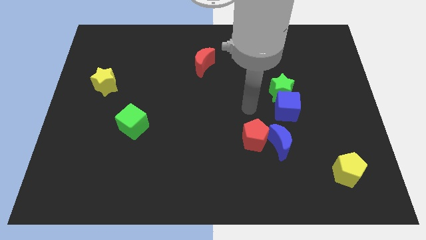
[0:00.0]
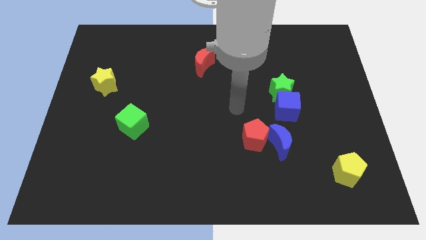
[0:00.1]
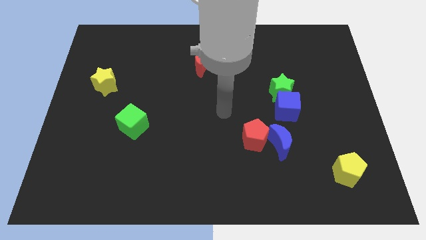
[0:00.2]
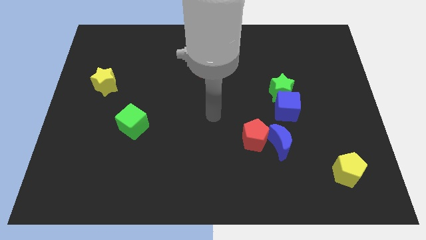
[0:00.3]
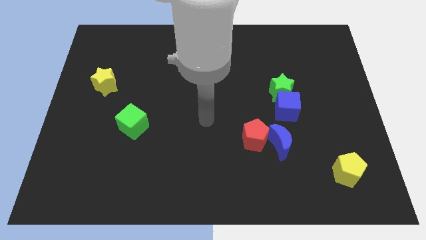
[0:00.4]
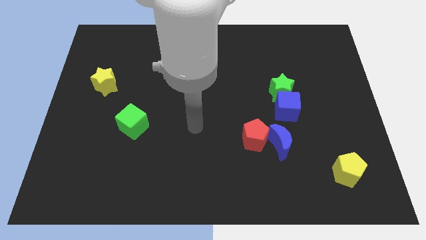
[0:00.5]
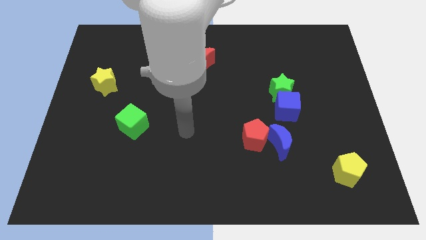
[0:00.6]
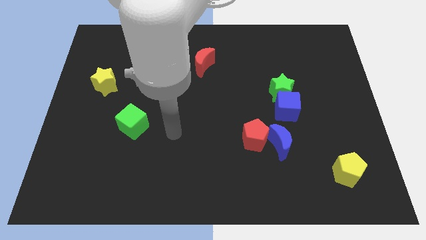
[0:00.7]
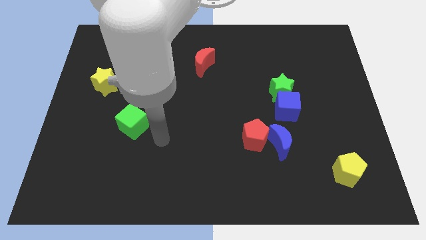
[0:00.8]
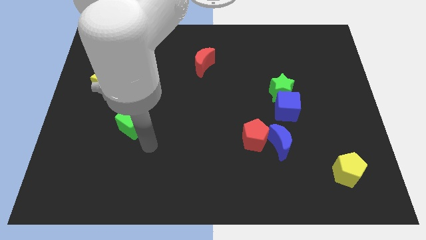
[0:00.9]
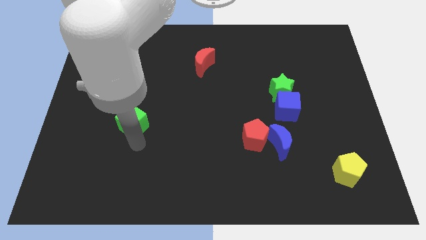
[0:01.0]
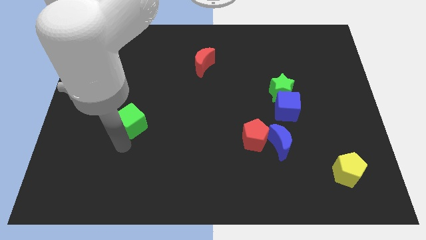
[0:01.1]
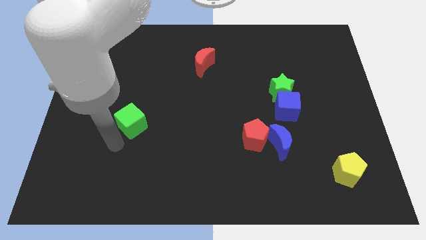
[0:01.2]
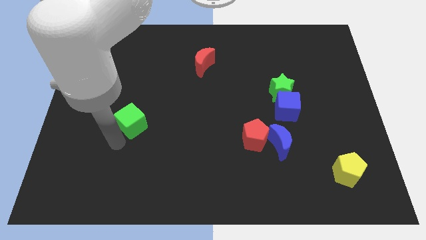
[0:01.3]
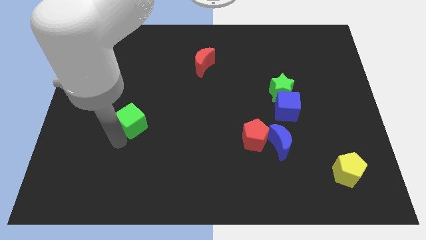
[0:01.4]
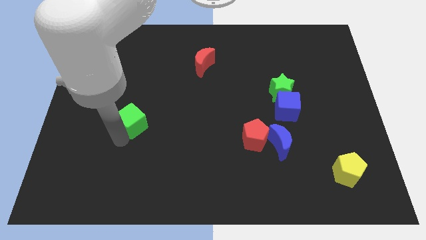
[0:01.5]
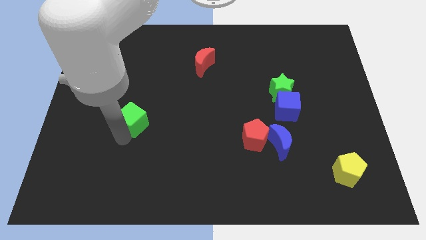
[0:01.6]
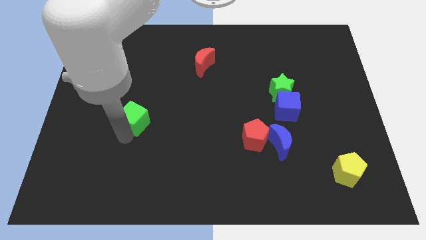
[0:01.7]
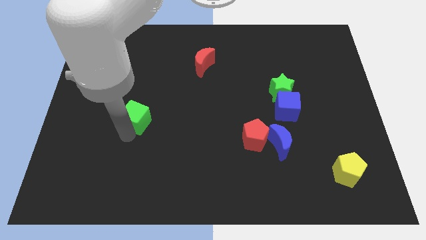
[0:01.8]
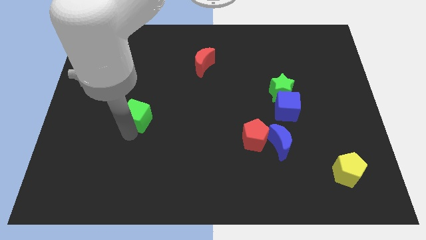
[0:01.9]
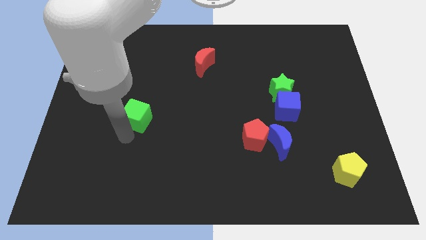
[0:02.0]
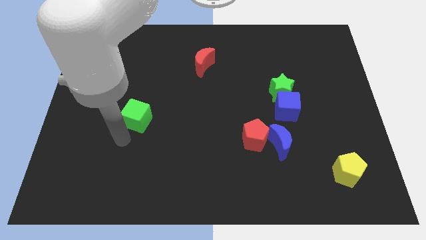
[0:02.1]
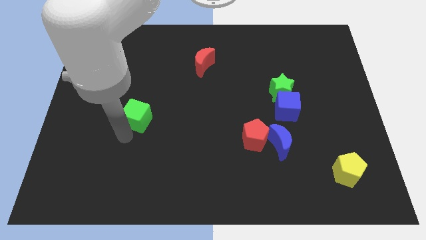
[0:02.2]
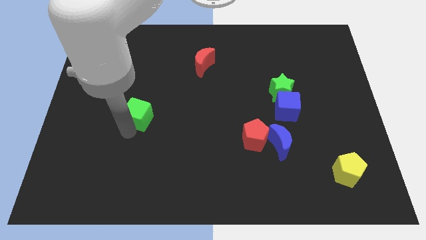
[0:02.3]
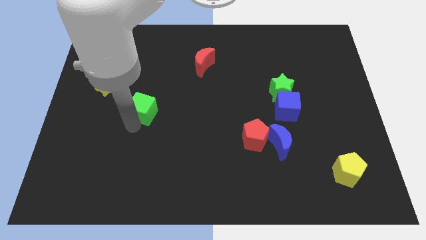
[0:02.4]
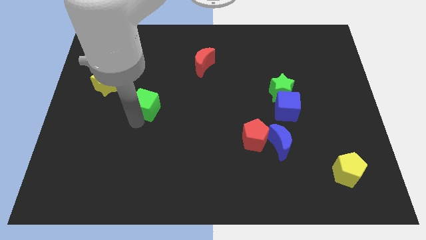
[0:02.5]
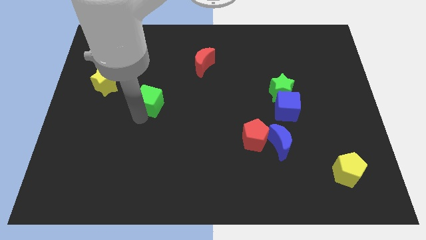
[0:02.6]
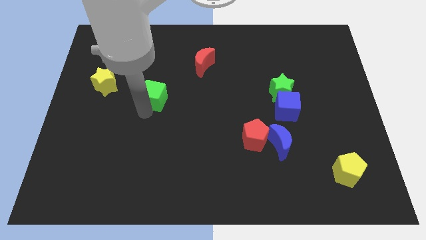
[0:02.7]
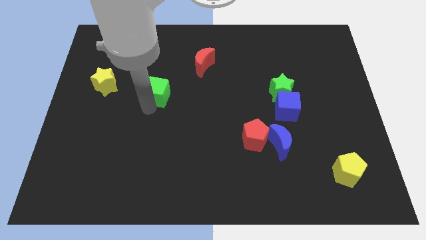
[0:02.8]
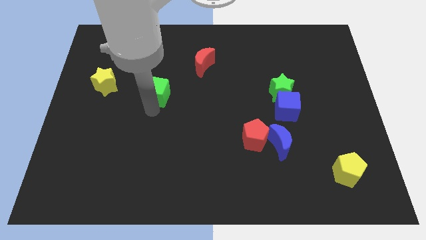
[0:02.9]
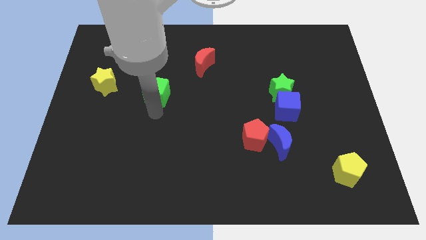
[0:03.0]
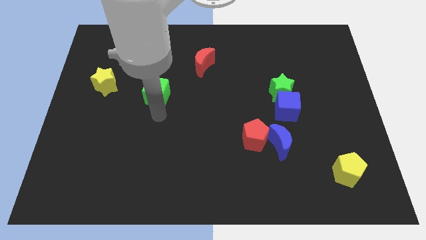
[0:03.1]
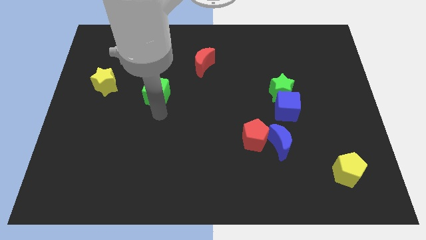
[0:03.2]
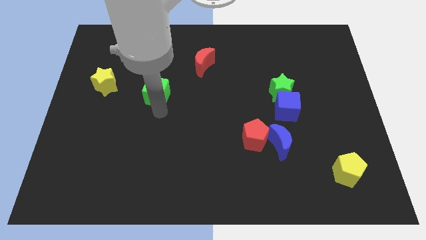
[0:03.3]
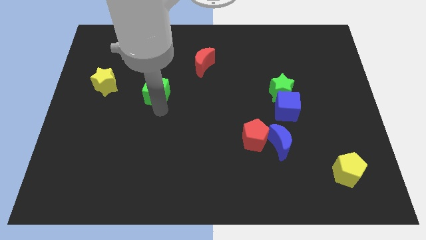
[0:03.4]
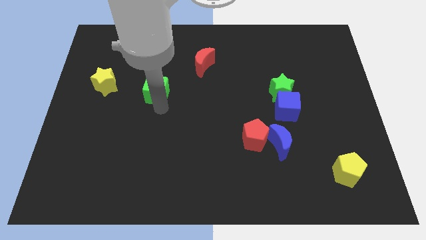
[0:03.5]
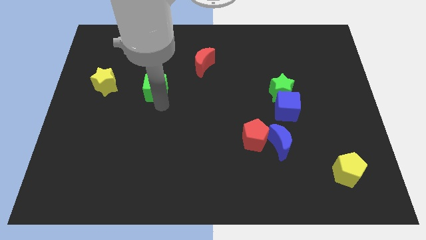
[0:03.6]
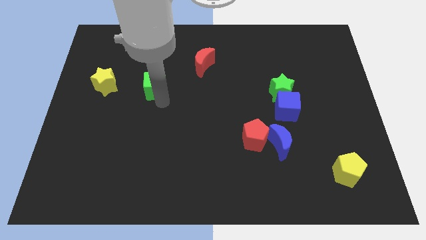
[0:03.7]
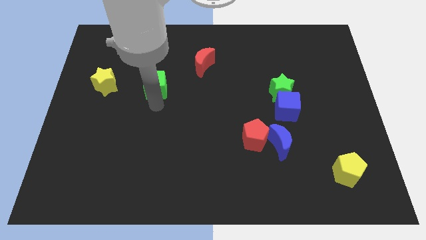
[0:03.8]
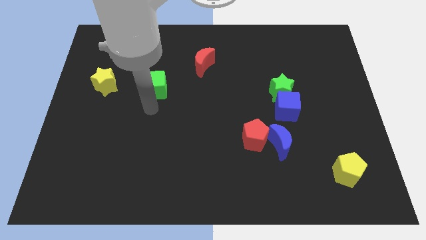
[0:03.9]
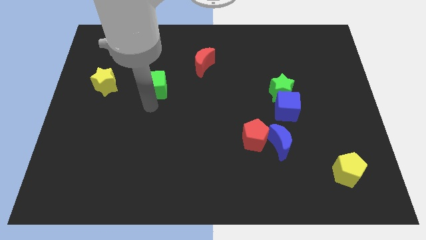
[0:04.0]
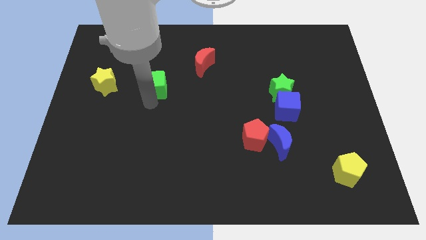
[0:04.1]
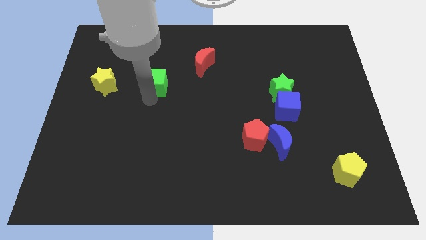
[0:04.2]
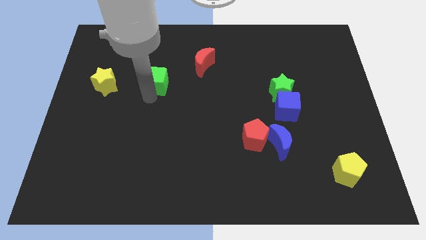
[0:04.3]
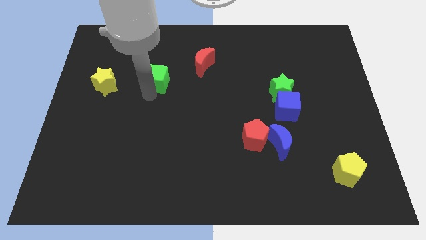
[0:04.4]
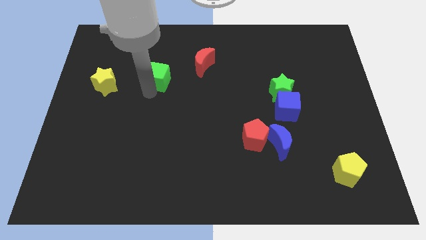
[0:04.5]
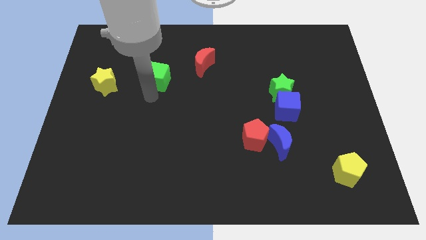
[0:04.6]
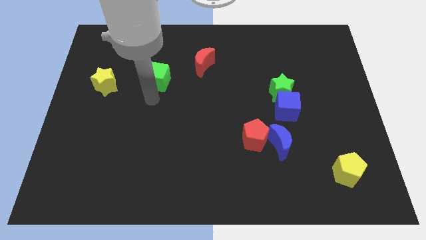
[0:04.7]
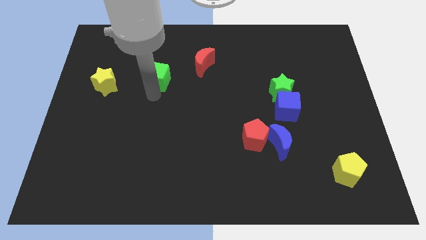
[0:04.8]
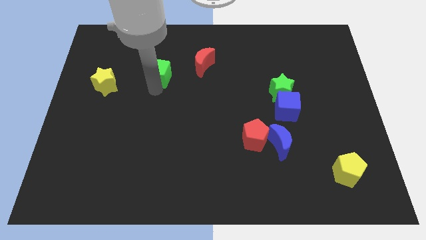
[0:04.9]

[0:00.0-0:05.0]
push the green cube just left of the red moon

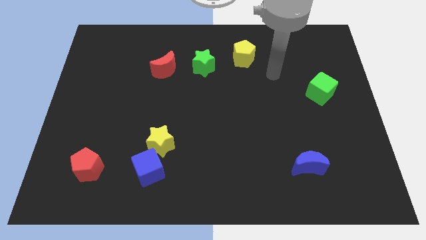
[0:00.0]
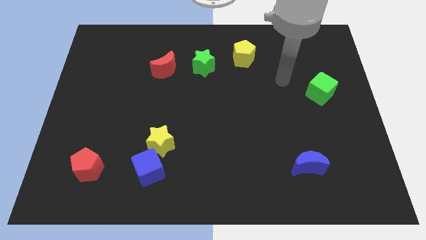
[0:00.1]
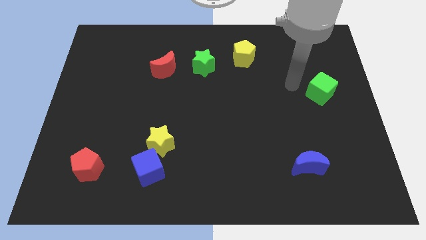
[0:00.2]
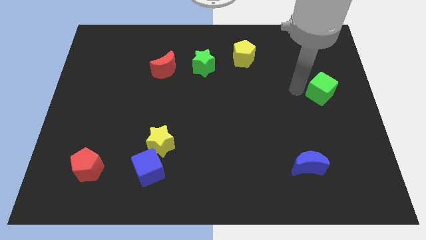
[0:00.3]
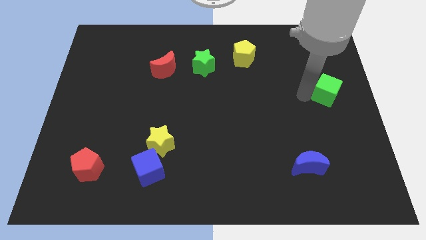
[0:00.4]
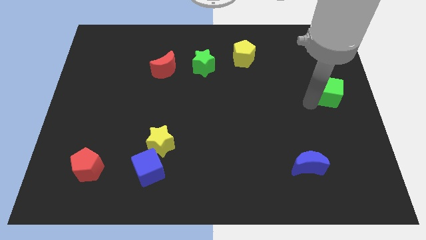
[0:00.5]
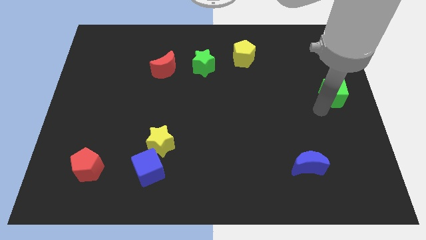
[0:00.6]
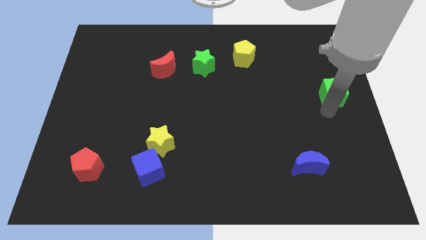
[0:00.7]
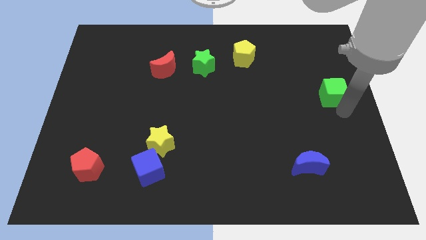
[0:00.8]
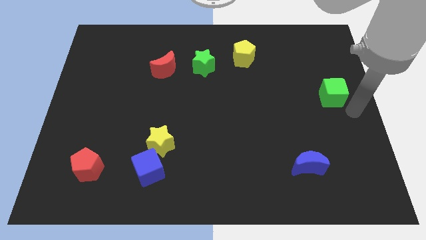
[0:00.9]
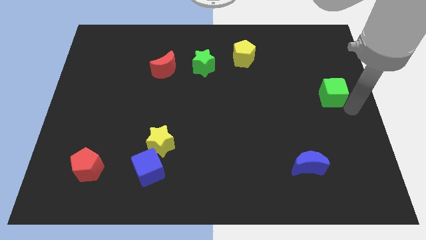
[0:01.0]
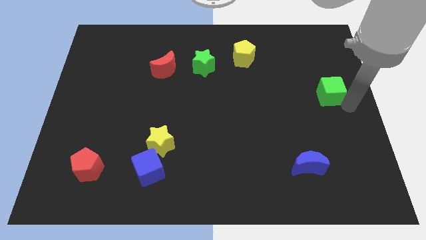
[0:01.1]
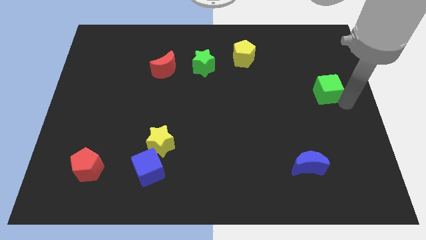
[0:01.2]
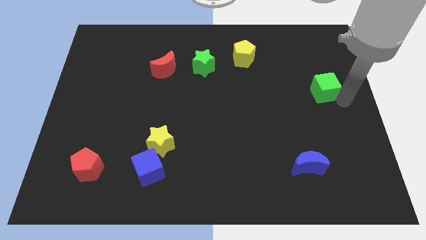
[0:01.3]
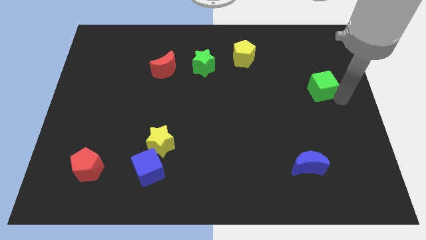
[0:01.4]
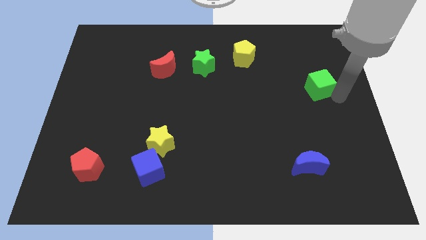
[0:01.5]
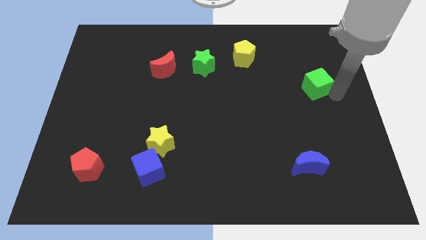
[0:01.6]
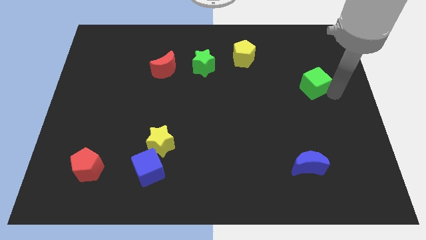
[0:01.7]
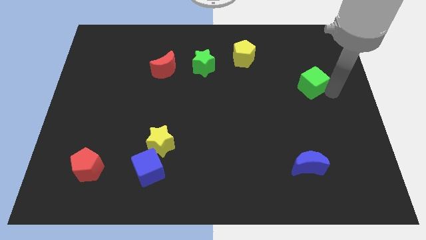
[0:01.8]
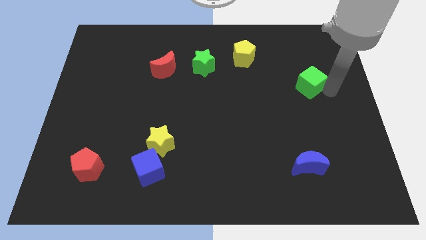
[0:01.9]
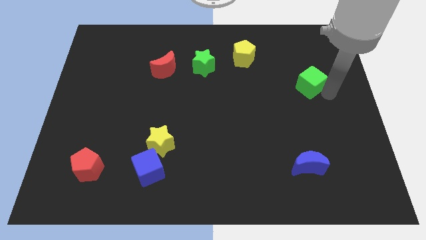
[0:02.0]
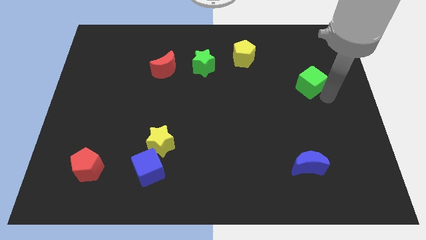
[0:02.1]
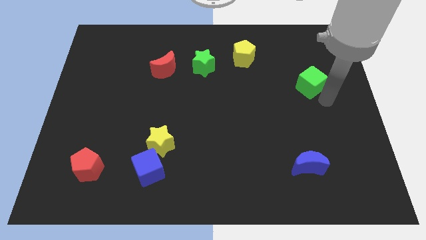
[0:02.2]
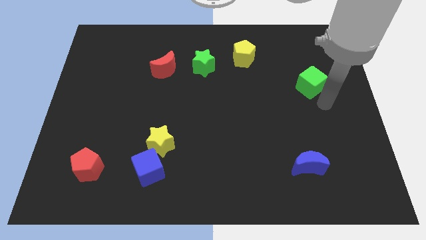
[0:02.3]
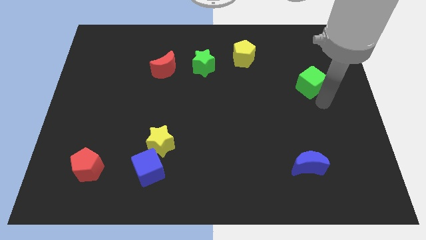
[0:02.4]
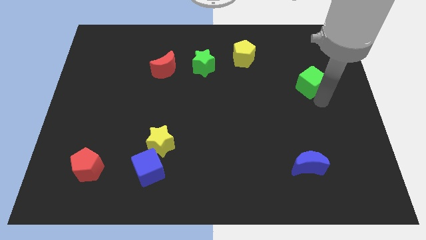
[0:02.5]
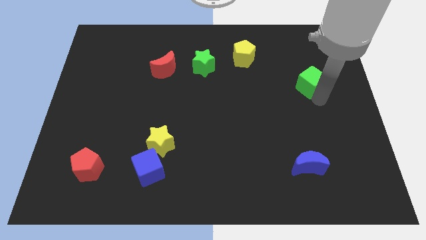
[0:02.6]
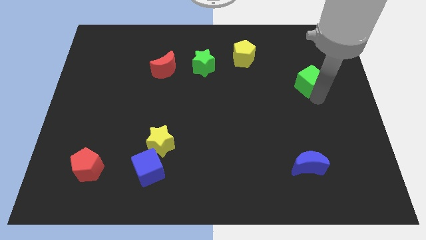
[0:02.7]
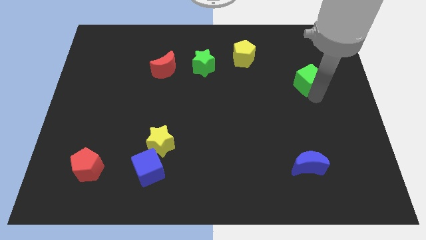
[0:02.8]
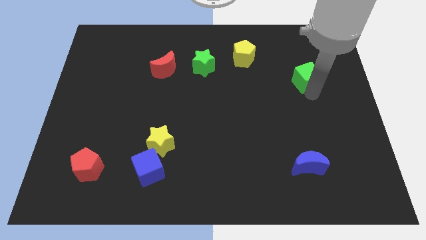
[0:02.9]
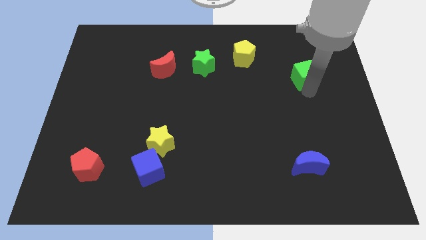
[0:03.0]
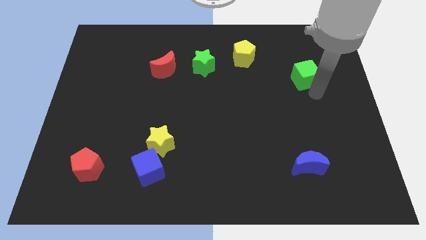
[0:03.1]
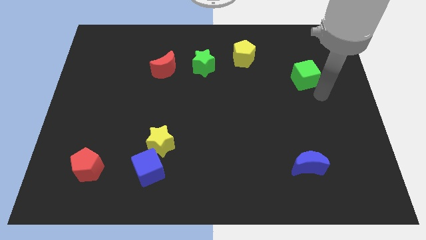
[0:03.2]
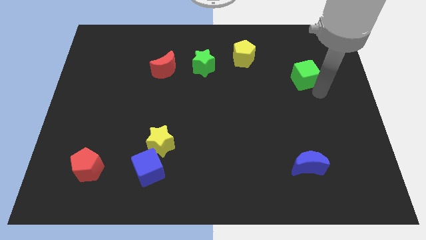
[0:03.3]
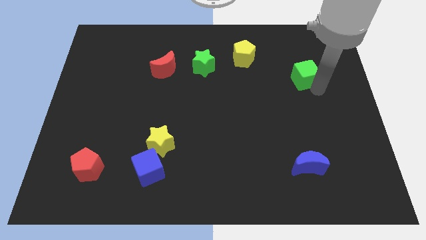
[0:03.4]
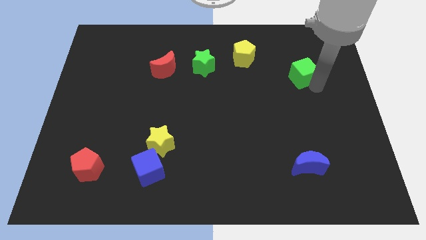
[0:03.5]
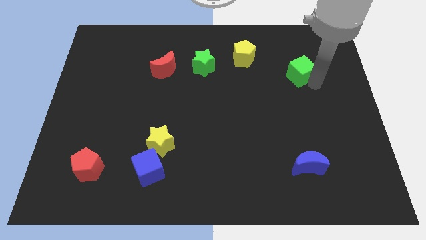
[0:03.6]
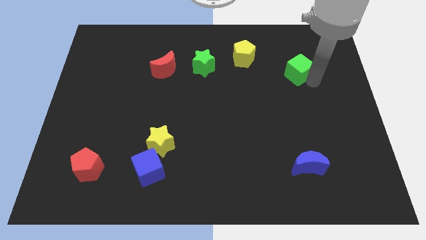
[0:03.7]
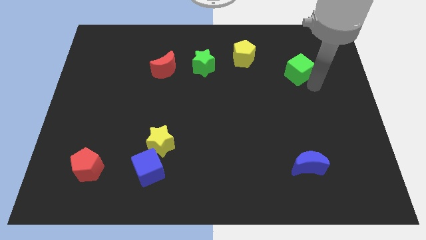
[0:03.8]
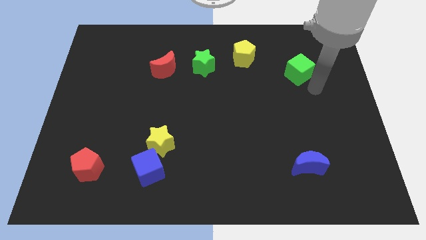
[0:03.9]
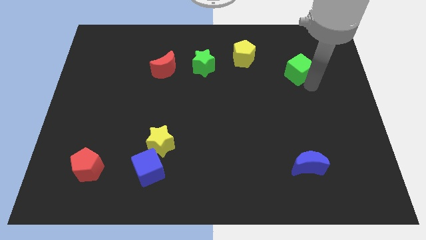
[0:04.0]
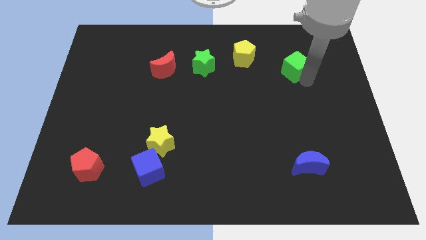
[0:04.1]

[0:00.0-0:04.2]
put the green cube to the right of the yellow pentagon
